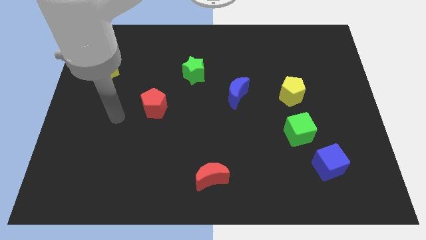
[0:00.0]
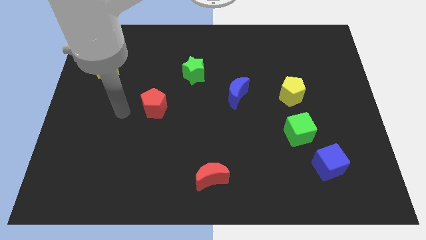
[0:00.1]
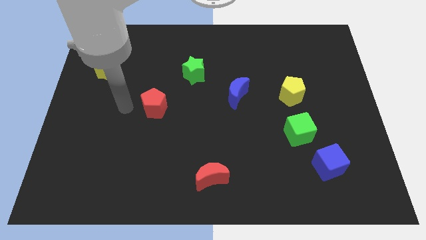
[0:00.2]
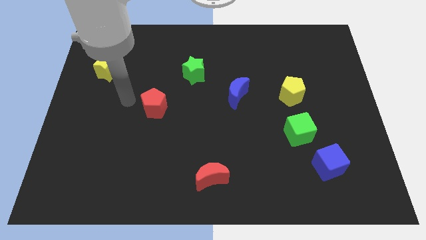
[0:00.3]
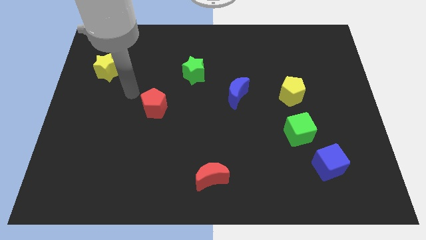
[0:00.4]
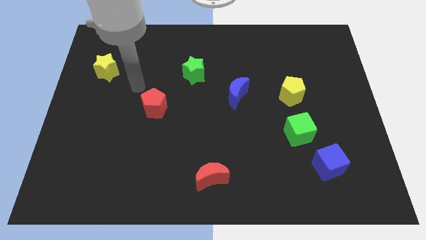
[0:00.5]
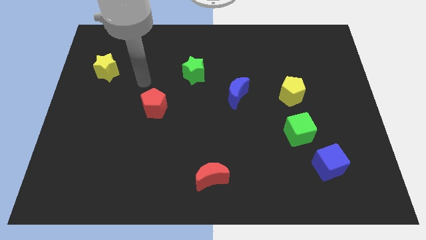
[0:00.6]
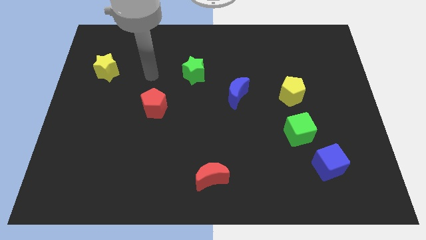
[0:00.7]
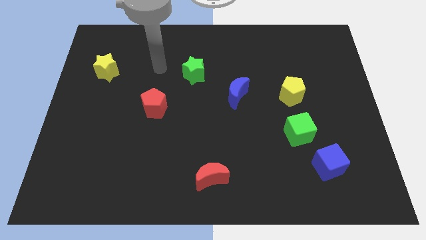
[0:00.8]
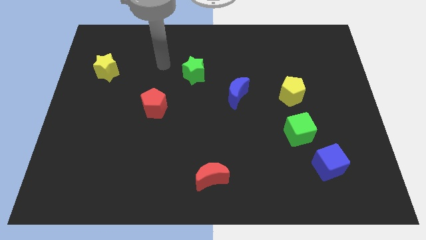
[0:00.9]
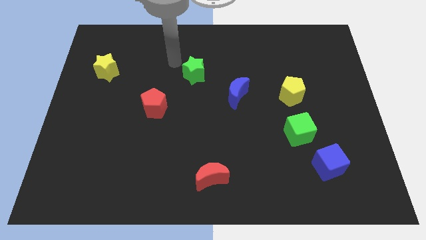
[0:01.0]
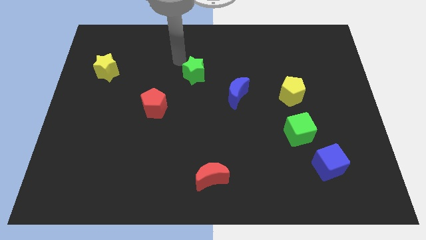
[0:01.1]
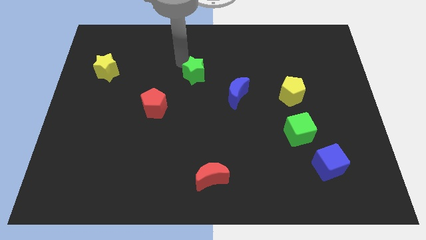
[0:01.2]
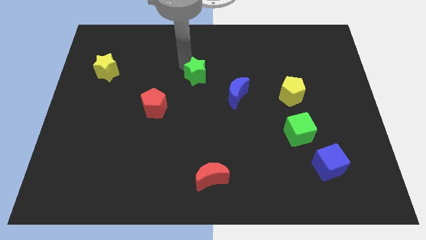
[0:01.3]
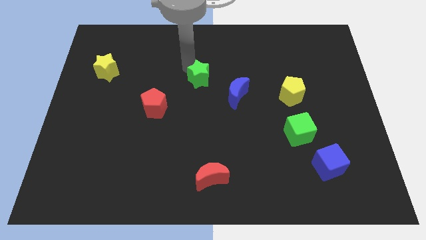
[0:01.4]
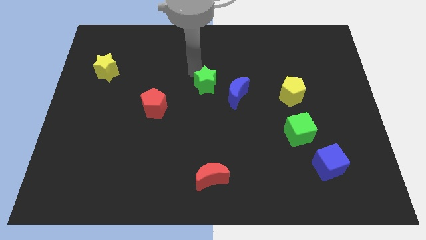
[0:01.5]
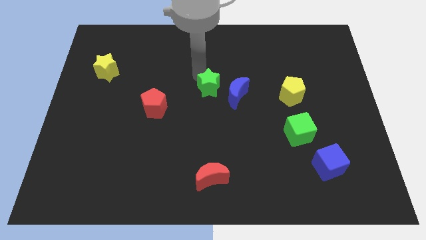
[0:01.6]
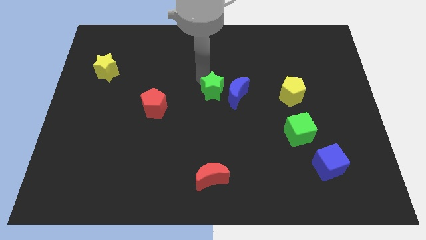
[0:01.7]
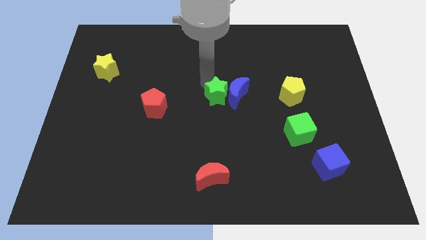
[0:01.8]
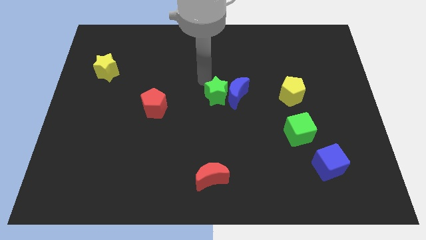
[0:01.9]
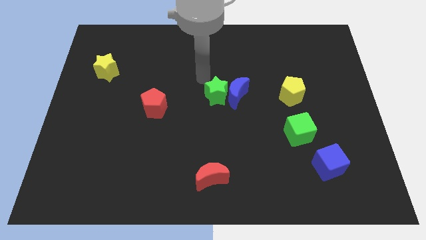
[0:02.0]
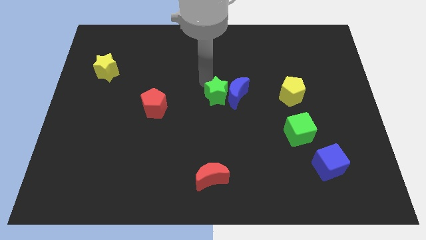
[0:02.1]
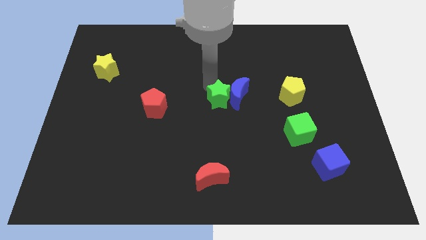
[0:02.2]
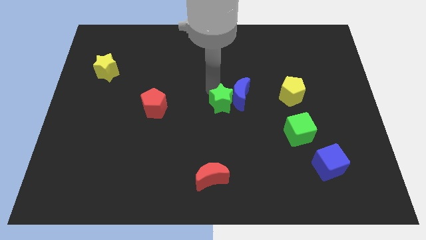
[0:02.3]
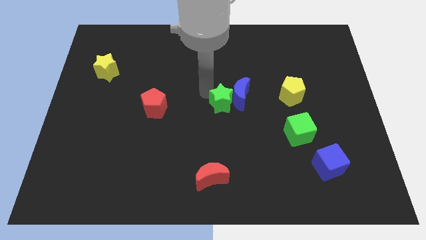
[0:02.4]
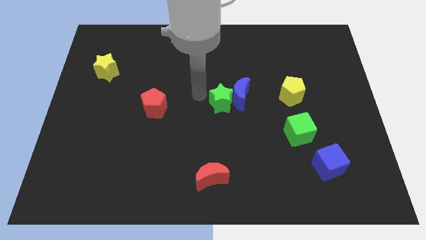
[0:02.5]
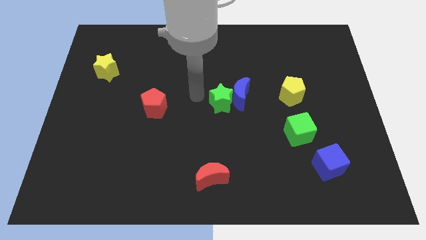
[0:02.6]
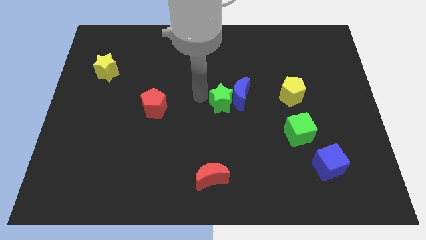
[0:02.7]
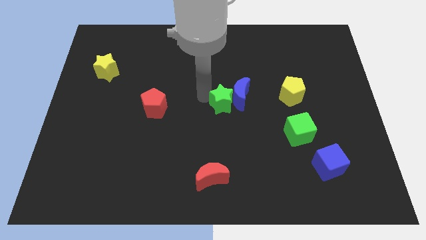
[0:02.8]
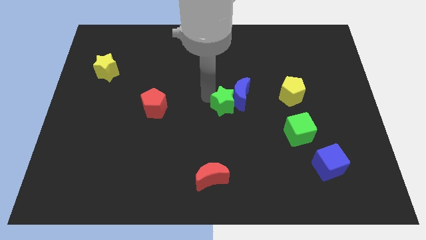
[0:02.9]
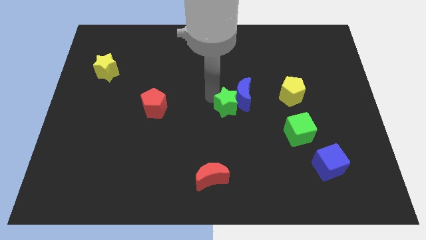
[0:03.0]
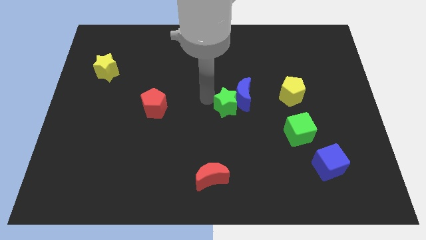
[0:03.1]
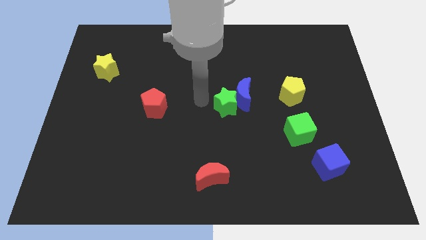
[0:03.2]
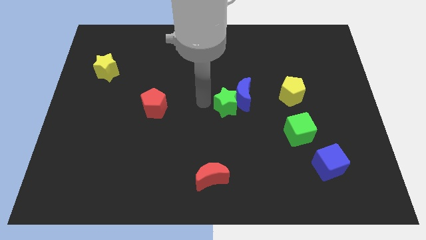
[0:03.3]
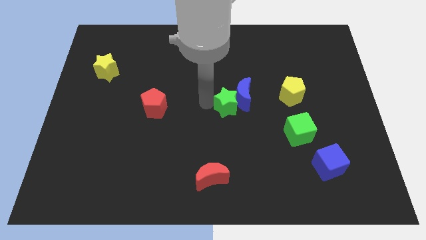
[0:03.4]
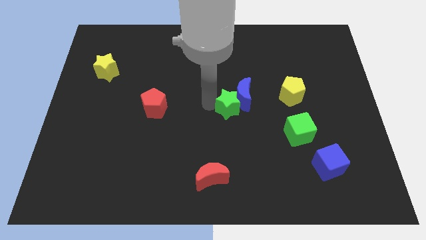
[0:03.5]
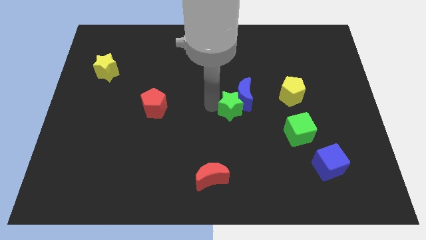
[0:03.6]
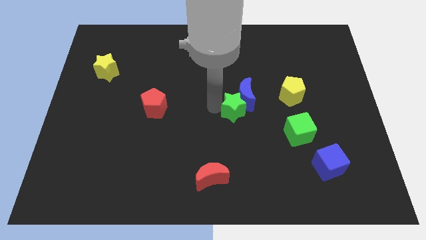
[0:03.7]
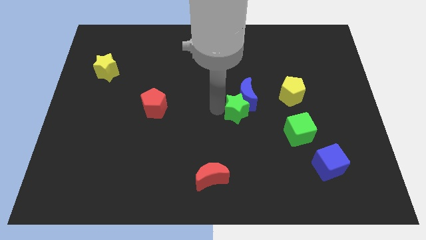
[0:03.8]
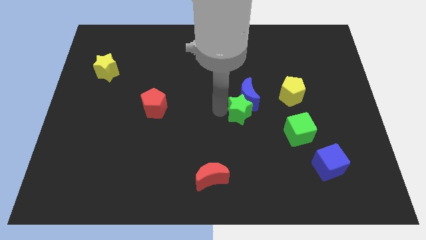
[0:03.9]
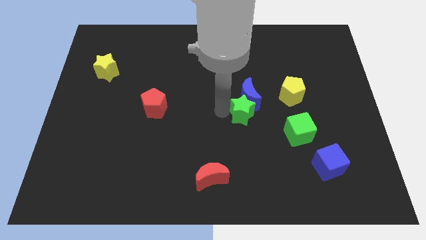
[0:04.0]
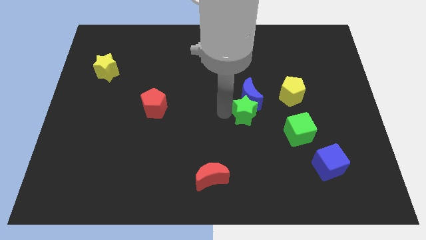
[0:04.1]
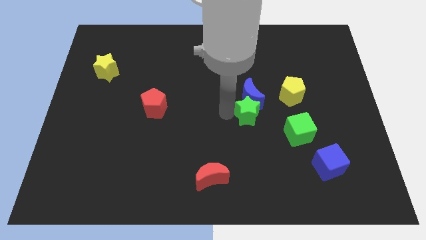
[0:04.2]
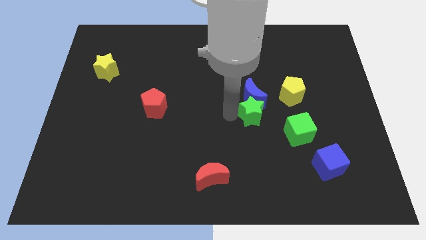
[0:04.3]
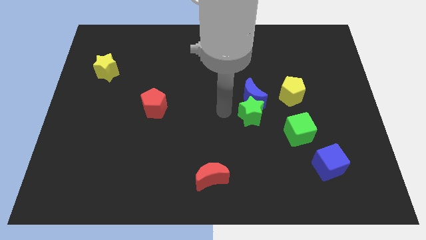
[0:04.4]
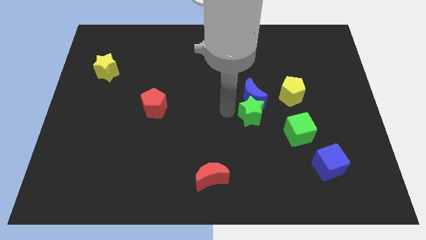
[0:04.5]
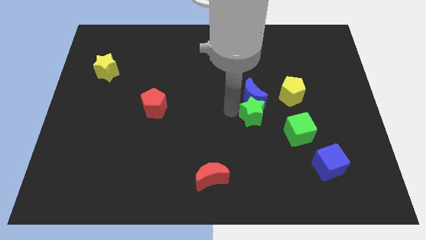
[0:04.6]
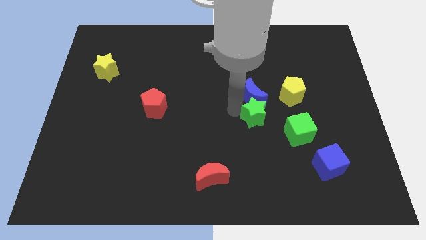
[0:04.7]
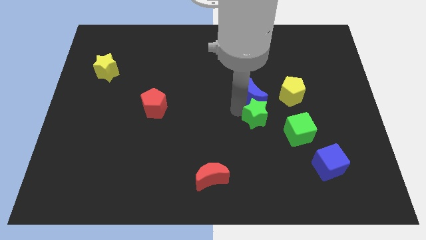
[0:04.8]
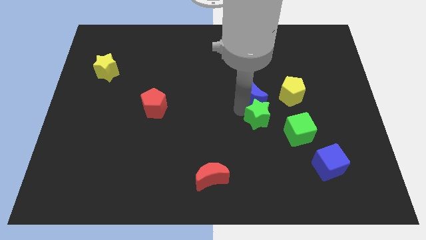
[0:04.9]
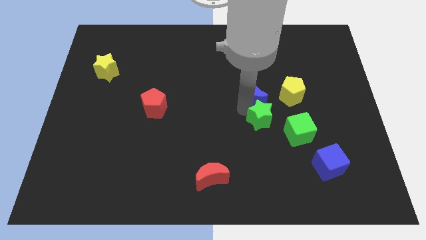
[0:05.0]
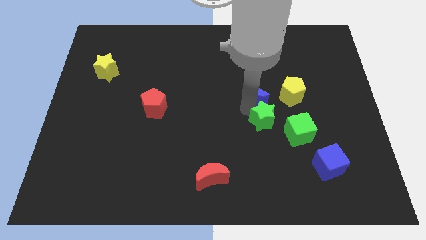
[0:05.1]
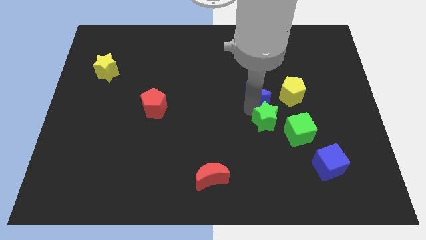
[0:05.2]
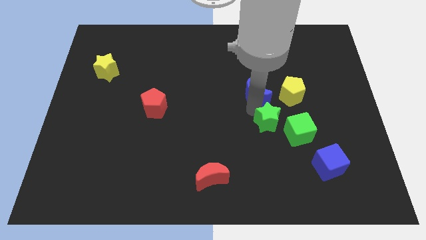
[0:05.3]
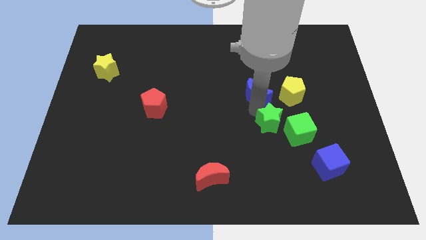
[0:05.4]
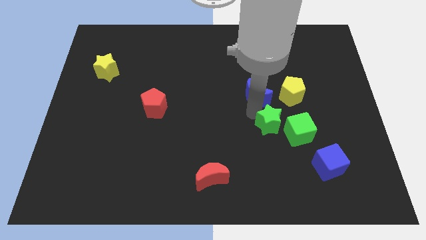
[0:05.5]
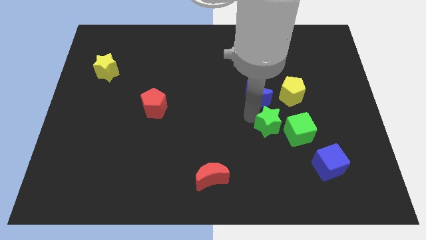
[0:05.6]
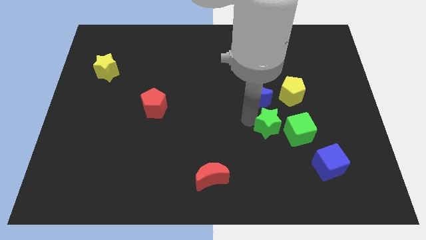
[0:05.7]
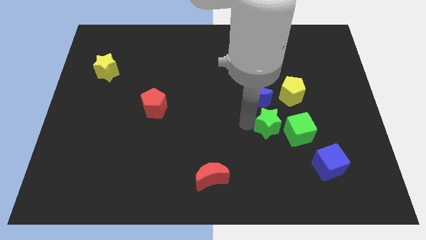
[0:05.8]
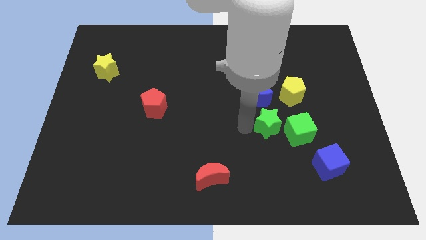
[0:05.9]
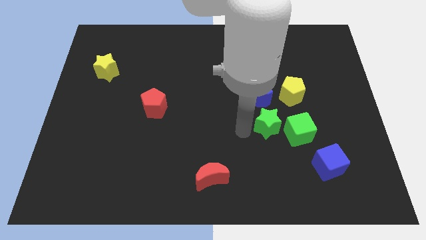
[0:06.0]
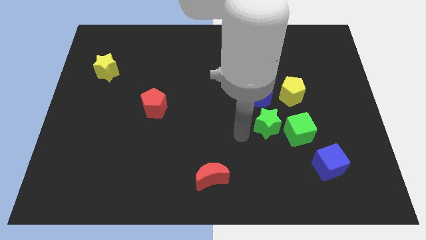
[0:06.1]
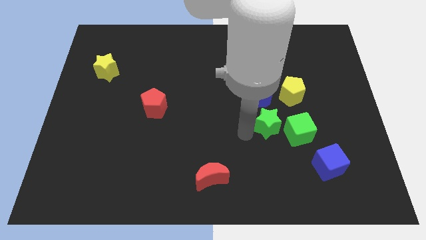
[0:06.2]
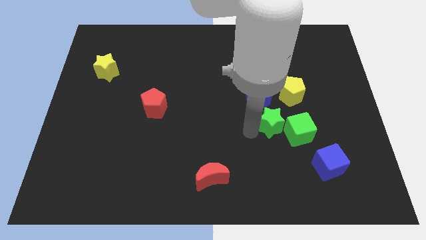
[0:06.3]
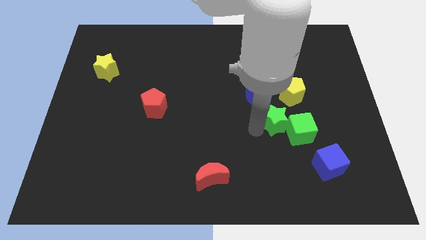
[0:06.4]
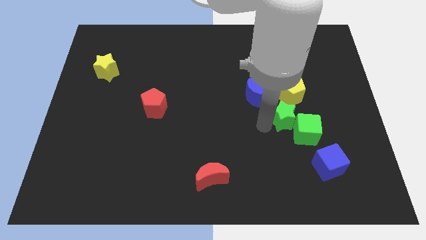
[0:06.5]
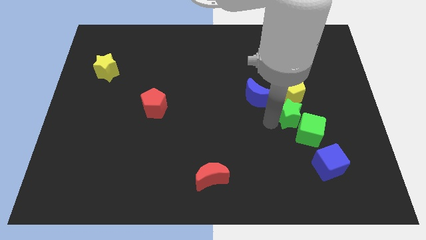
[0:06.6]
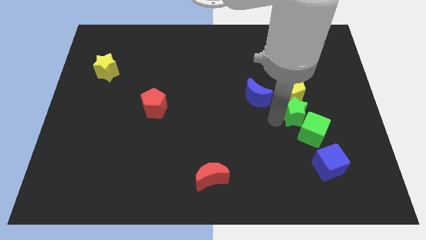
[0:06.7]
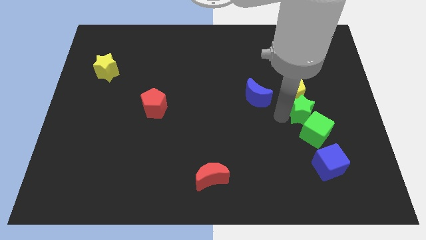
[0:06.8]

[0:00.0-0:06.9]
put the green star to the top of the blue cube
